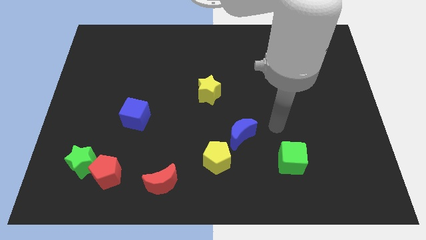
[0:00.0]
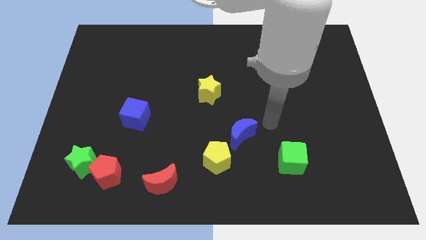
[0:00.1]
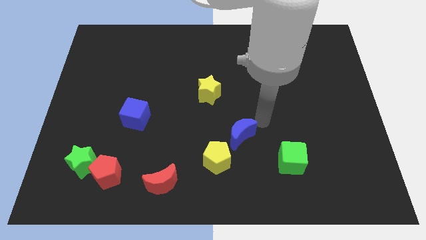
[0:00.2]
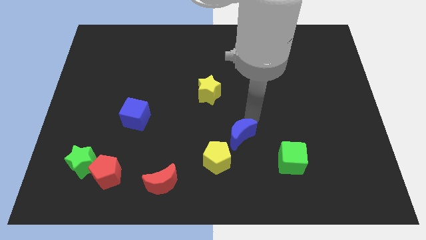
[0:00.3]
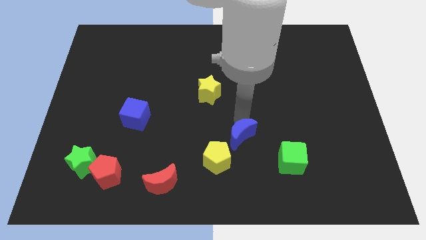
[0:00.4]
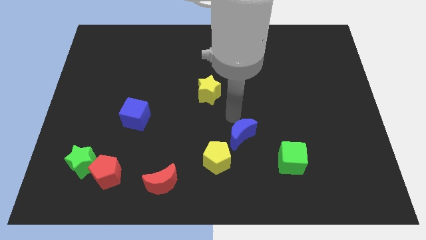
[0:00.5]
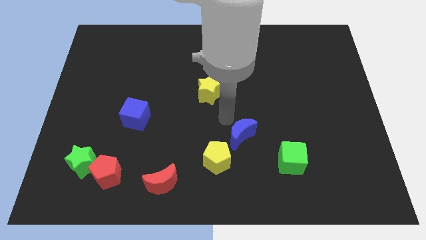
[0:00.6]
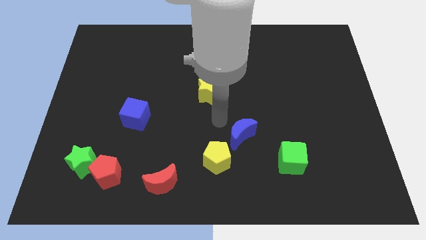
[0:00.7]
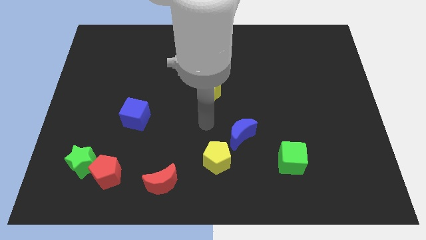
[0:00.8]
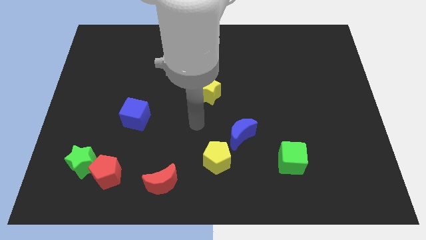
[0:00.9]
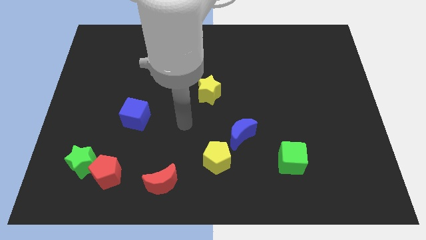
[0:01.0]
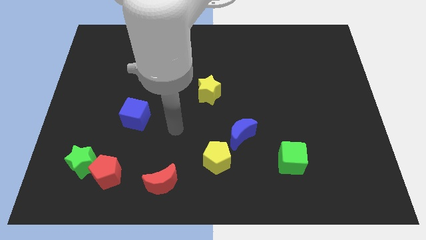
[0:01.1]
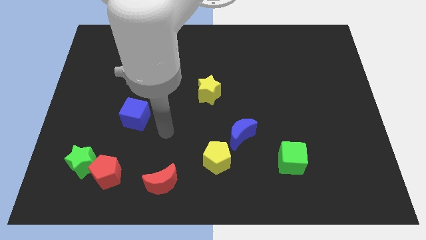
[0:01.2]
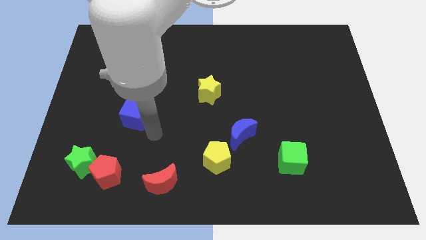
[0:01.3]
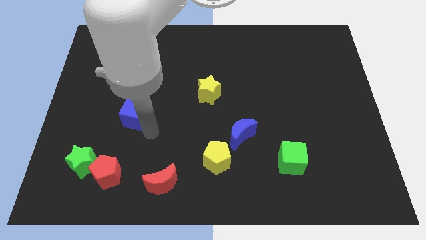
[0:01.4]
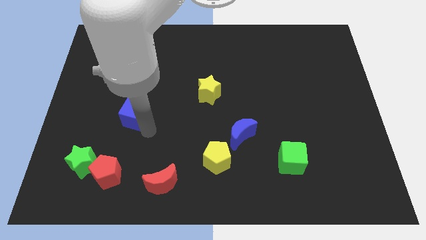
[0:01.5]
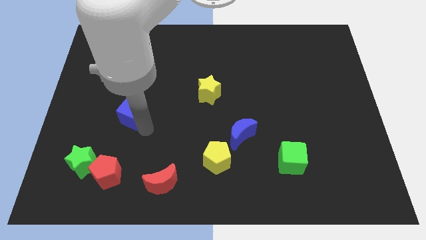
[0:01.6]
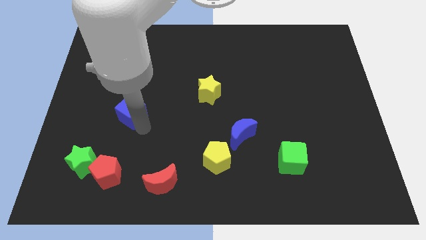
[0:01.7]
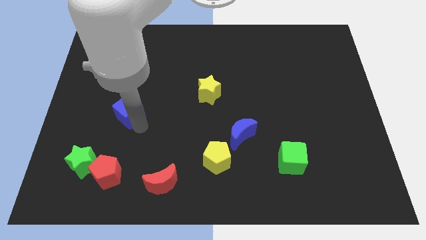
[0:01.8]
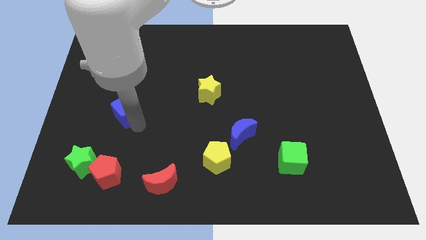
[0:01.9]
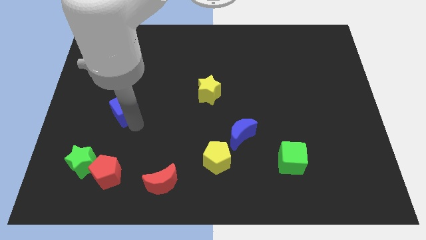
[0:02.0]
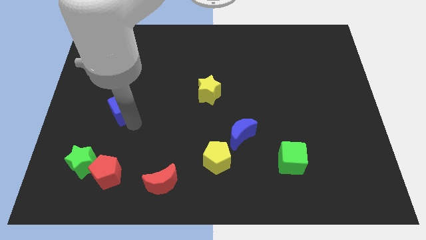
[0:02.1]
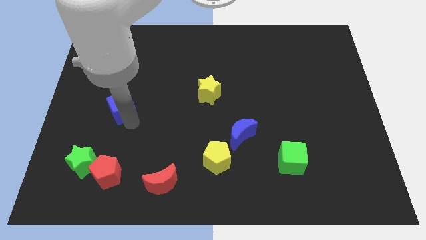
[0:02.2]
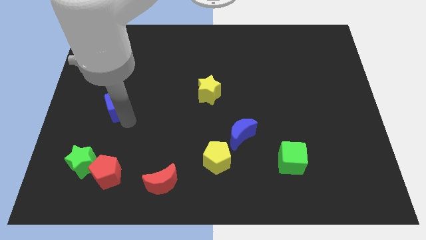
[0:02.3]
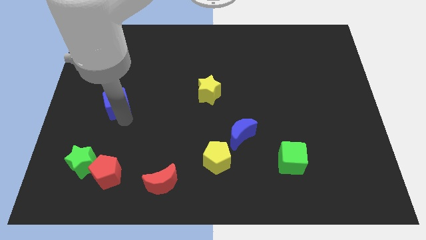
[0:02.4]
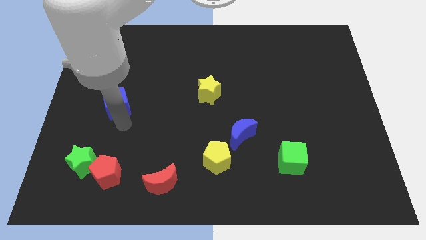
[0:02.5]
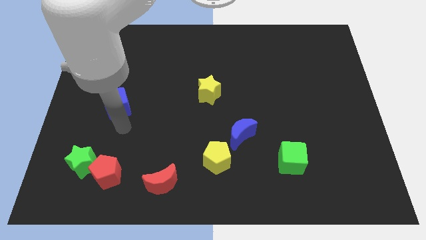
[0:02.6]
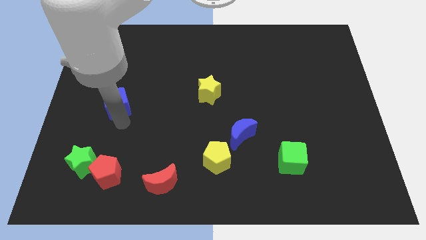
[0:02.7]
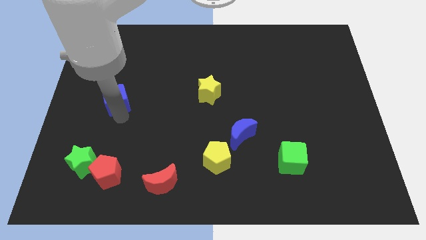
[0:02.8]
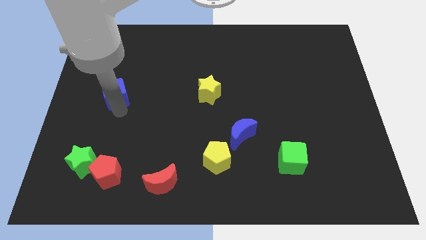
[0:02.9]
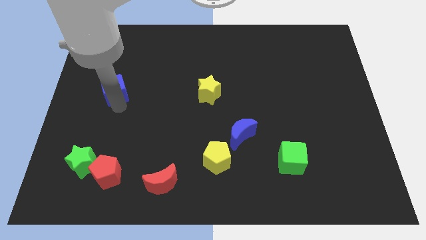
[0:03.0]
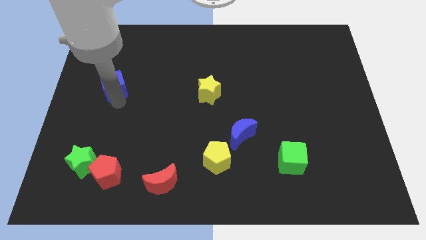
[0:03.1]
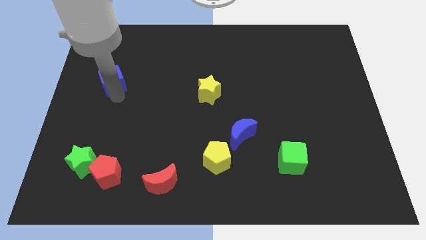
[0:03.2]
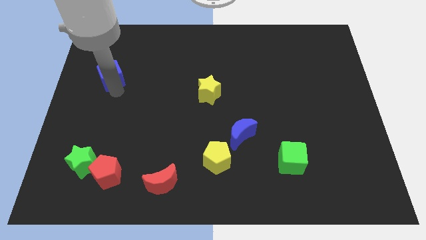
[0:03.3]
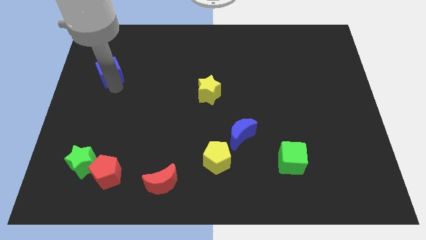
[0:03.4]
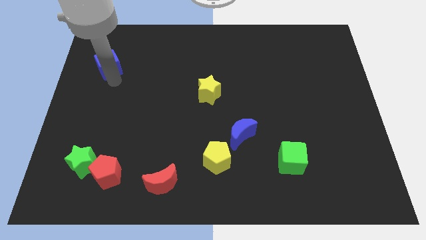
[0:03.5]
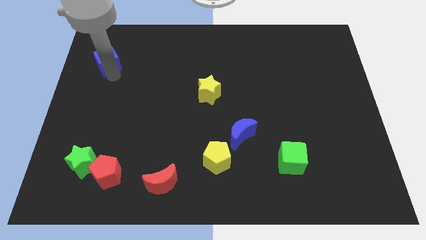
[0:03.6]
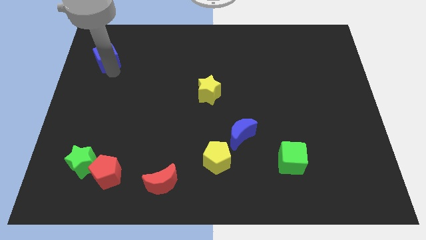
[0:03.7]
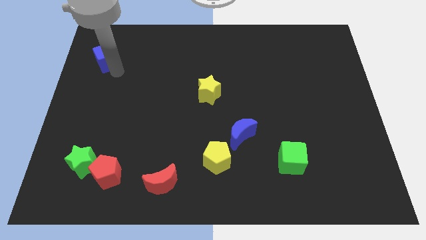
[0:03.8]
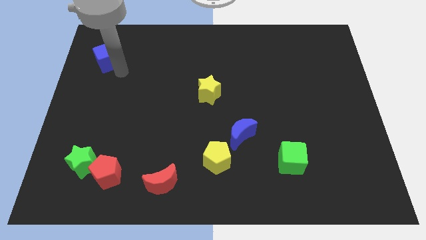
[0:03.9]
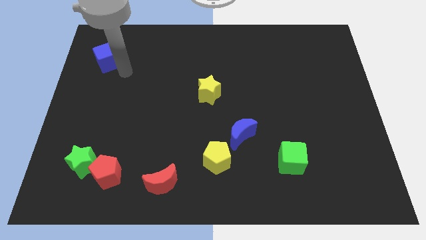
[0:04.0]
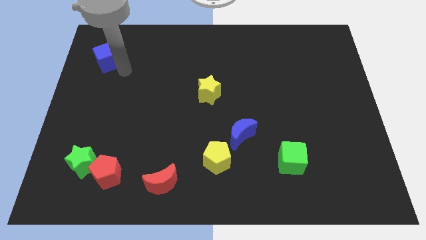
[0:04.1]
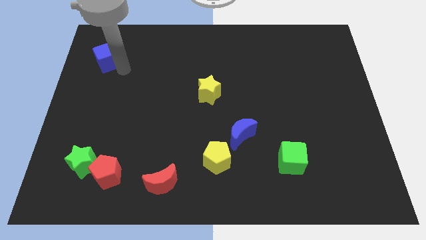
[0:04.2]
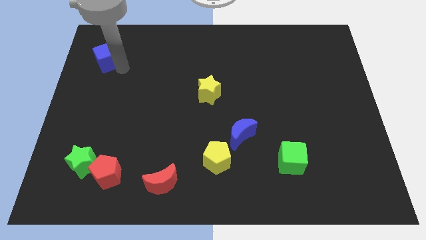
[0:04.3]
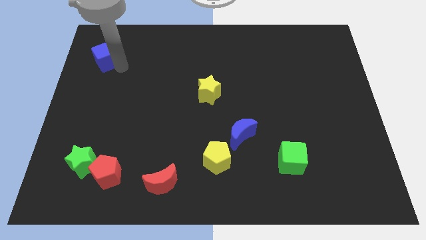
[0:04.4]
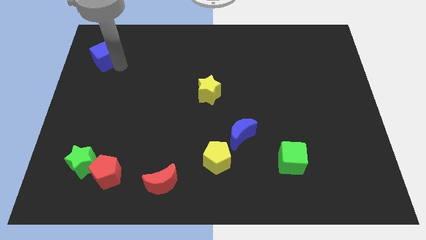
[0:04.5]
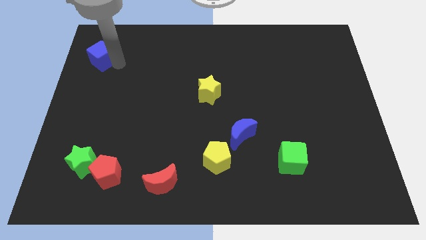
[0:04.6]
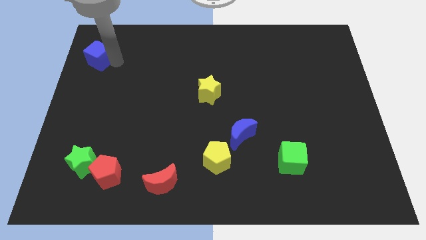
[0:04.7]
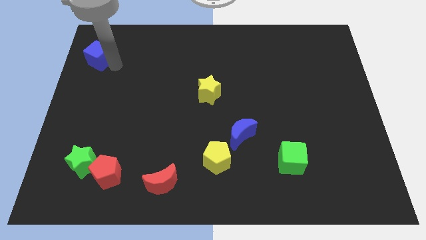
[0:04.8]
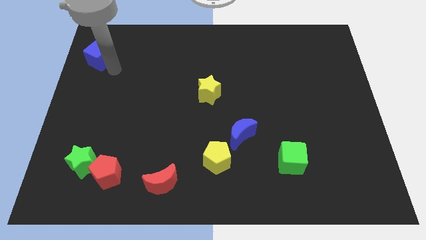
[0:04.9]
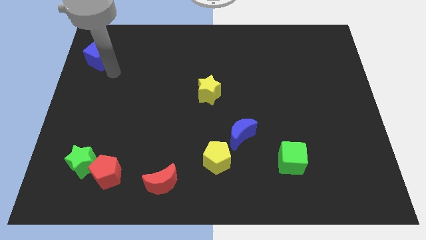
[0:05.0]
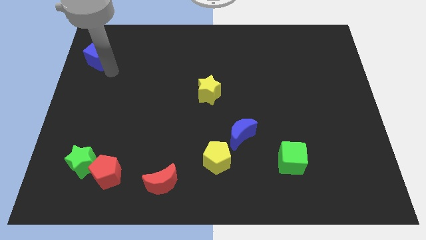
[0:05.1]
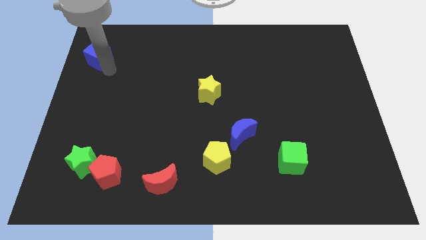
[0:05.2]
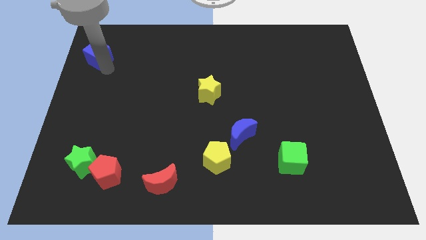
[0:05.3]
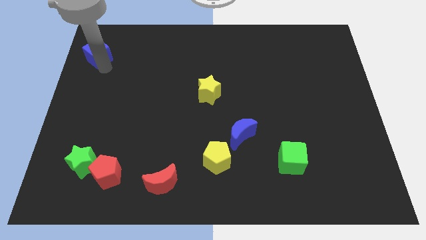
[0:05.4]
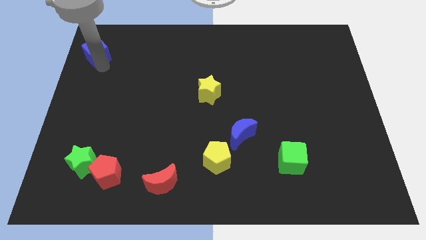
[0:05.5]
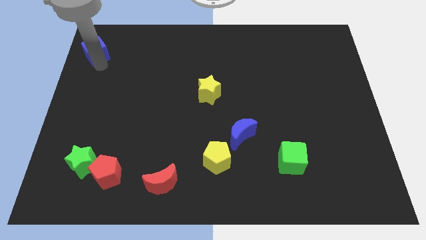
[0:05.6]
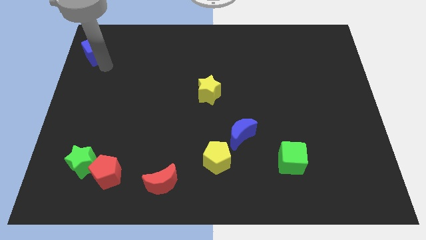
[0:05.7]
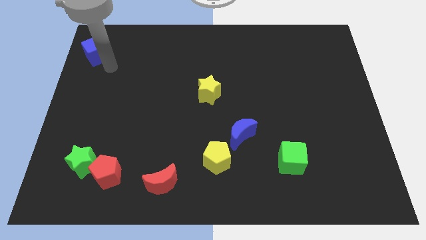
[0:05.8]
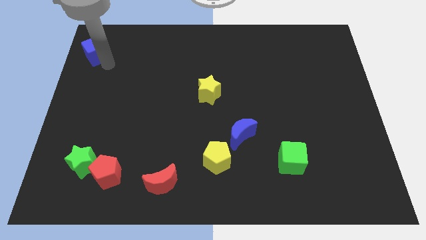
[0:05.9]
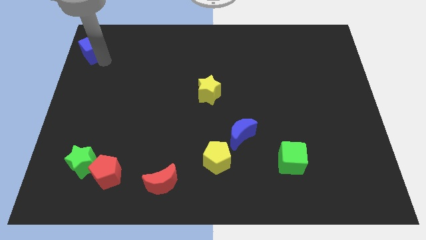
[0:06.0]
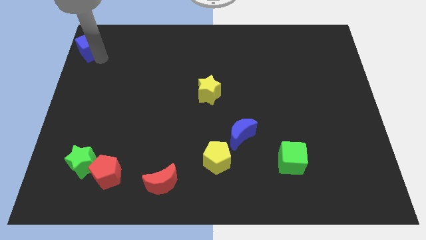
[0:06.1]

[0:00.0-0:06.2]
put the blue cube to the top left corner

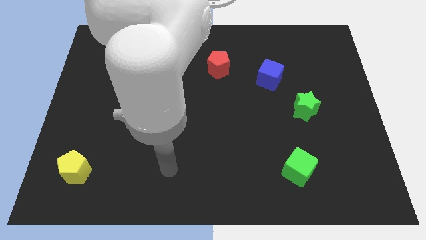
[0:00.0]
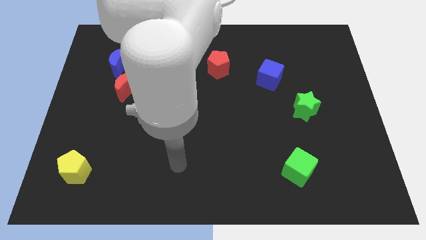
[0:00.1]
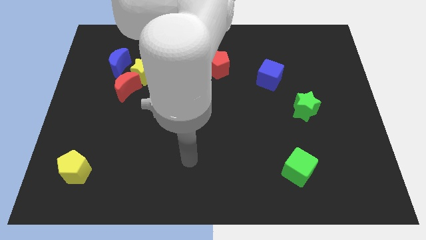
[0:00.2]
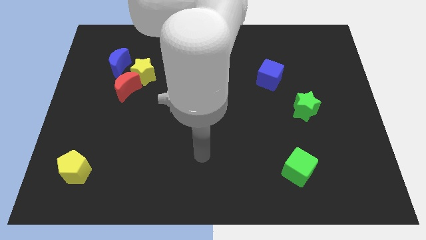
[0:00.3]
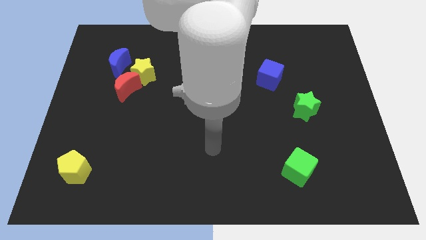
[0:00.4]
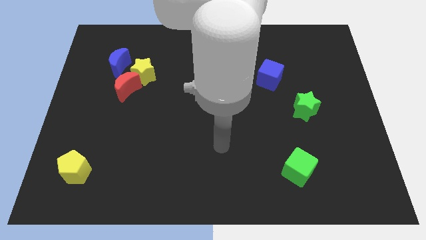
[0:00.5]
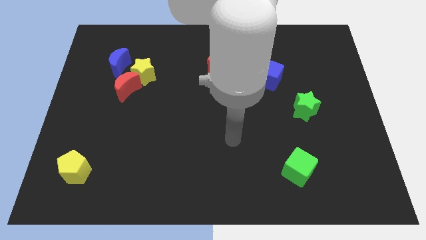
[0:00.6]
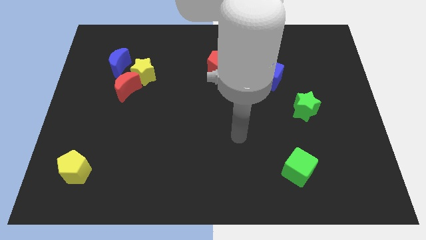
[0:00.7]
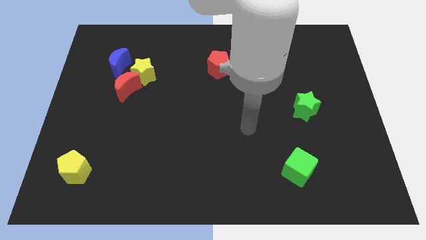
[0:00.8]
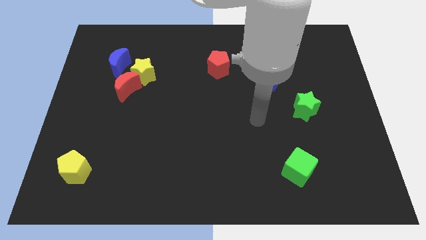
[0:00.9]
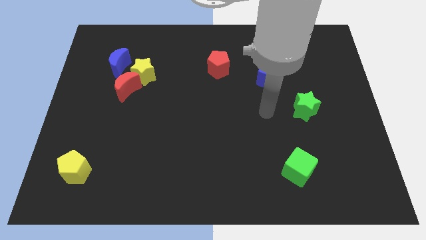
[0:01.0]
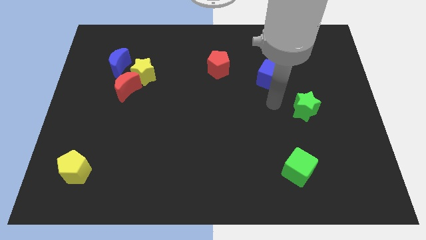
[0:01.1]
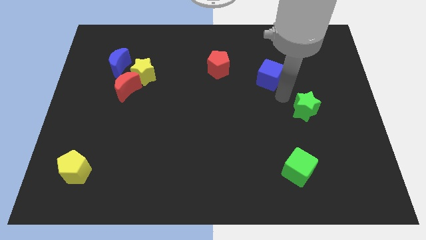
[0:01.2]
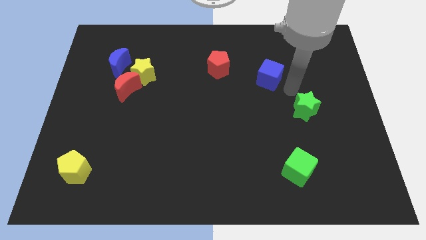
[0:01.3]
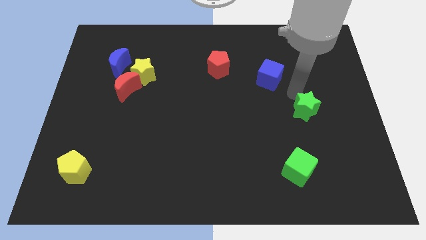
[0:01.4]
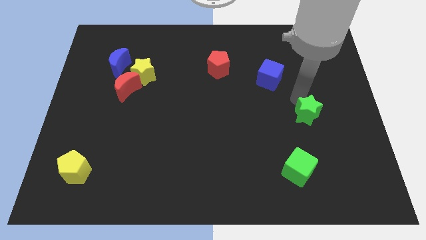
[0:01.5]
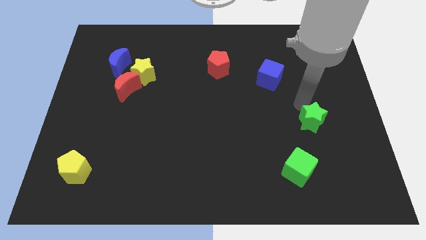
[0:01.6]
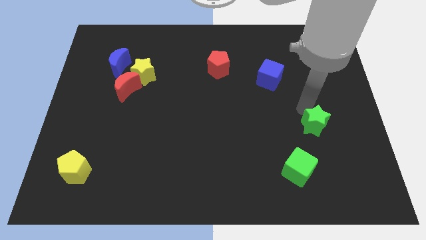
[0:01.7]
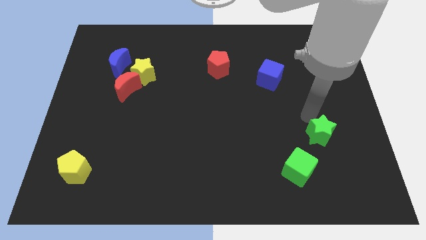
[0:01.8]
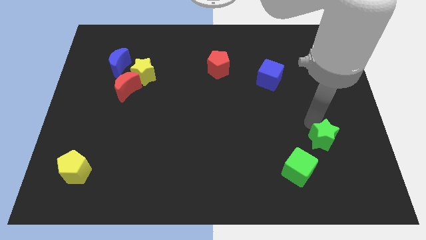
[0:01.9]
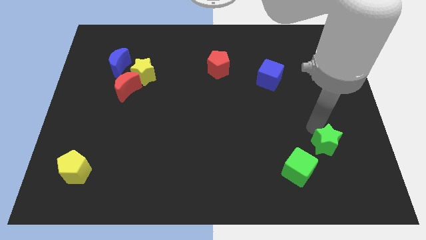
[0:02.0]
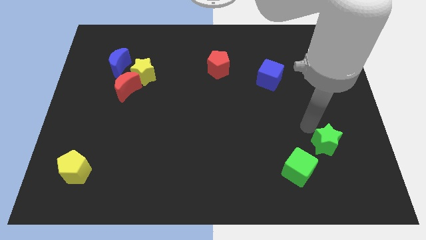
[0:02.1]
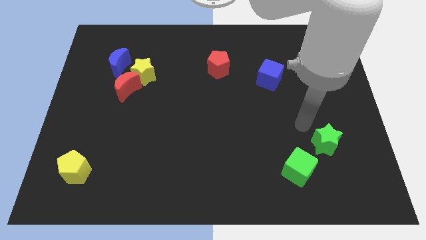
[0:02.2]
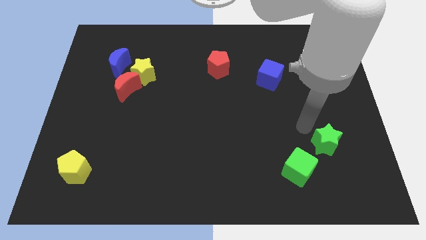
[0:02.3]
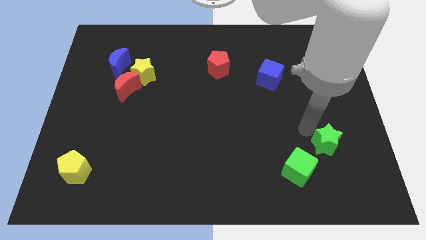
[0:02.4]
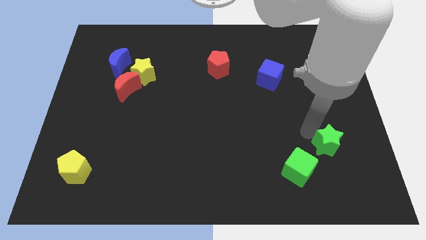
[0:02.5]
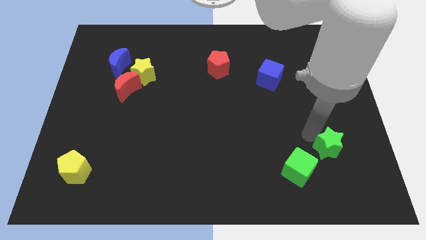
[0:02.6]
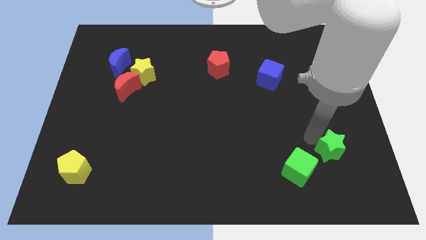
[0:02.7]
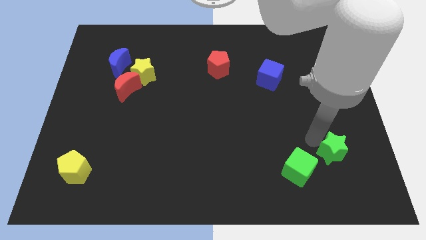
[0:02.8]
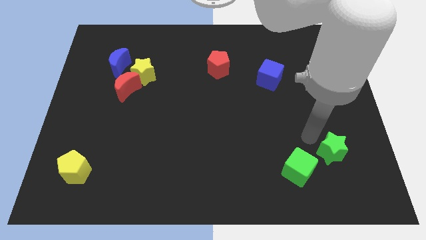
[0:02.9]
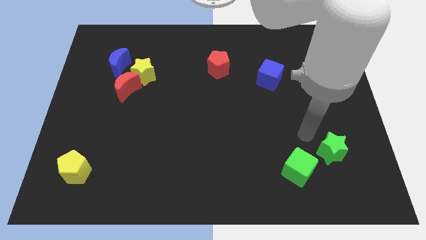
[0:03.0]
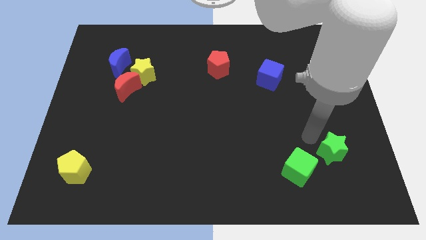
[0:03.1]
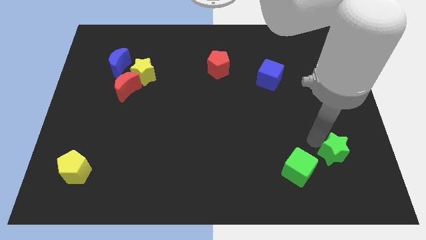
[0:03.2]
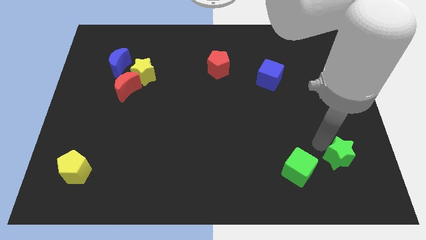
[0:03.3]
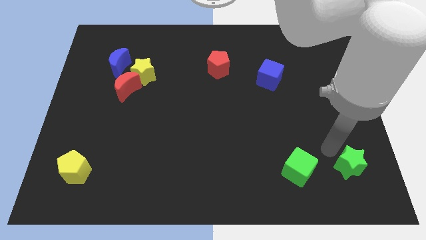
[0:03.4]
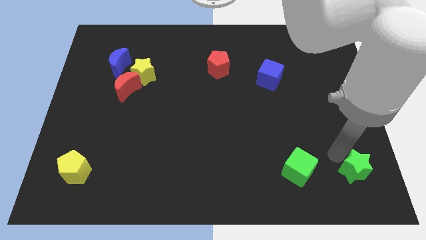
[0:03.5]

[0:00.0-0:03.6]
slide the green star to the bottom right
